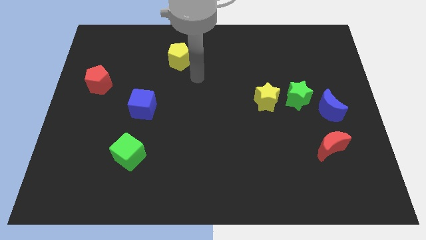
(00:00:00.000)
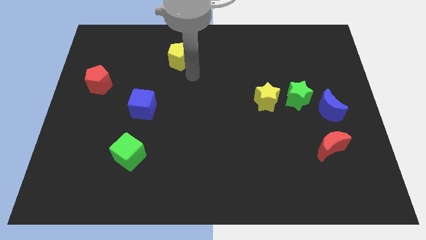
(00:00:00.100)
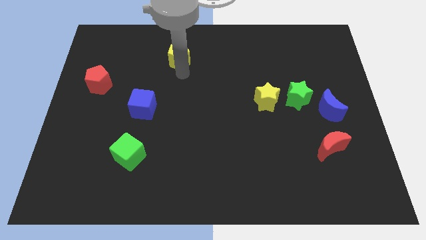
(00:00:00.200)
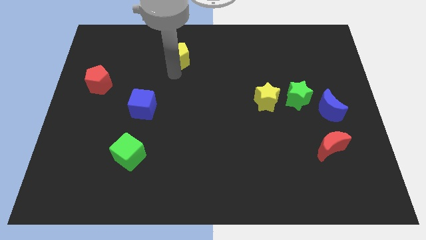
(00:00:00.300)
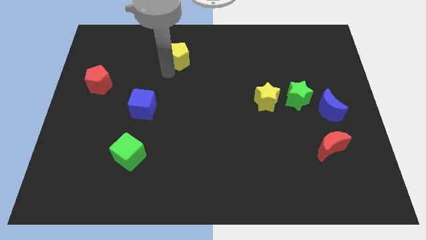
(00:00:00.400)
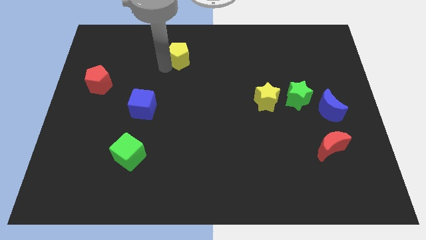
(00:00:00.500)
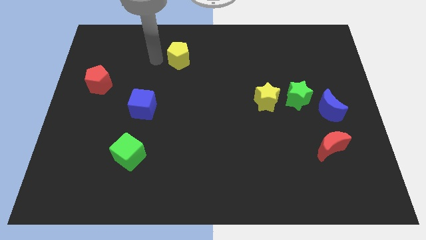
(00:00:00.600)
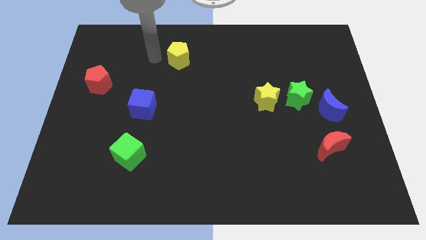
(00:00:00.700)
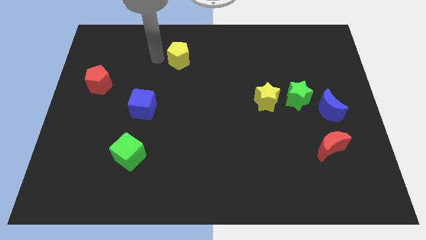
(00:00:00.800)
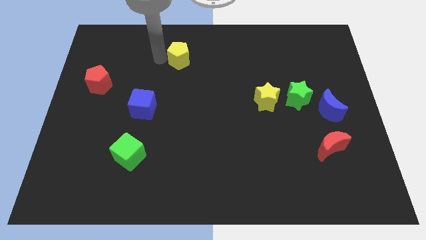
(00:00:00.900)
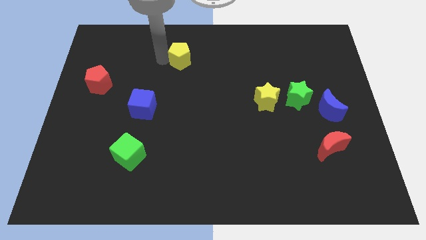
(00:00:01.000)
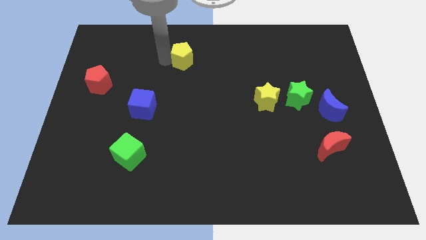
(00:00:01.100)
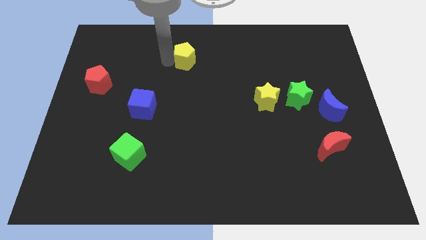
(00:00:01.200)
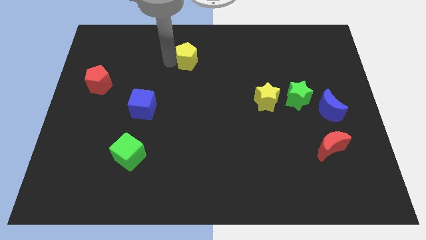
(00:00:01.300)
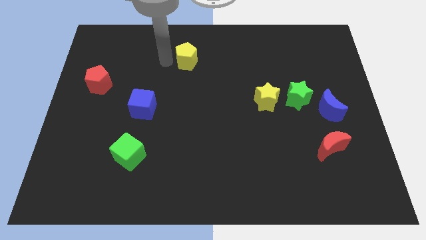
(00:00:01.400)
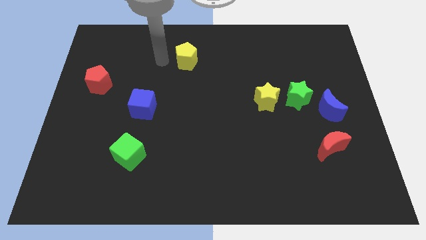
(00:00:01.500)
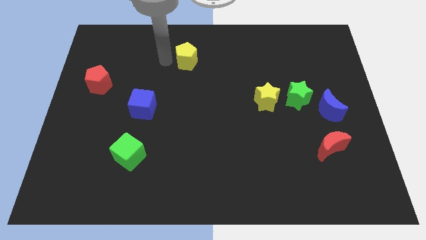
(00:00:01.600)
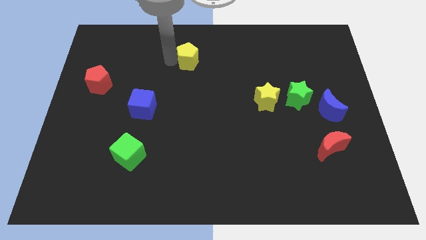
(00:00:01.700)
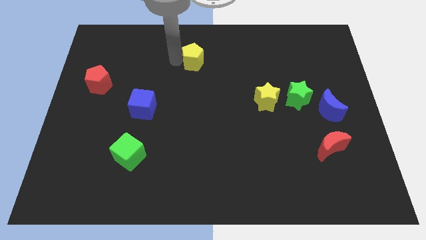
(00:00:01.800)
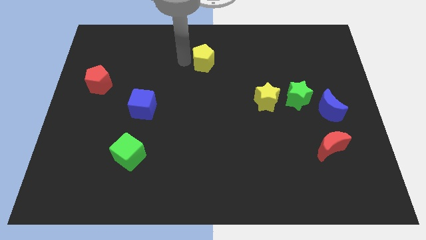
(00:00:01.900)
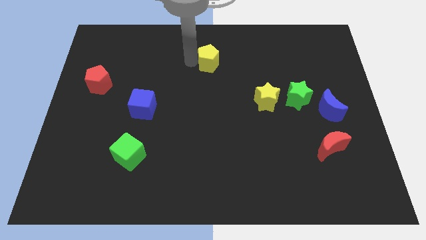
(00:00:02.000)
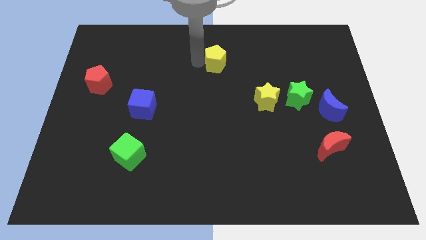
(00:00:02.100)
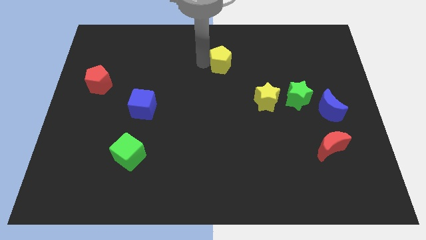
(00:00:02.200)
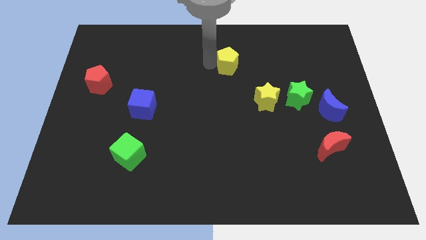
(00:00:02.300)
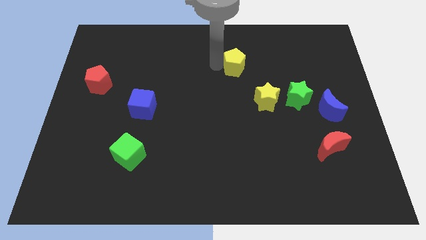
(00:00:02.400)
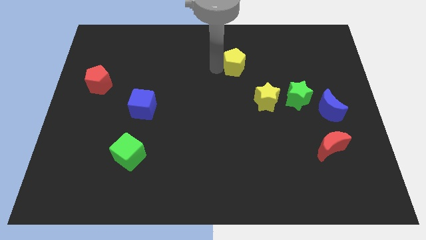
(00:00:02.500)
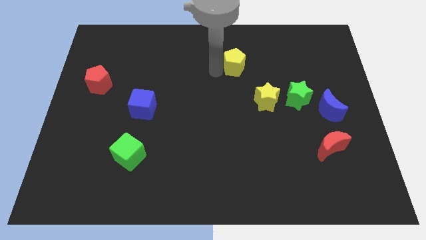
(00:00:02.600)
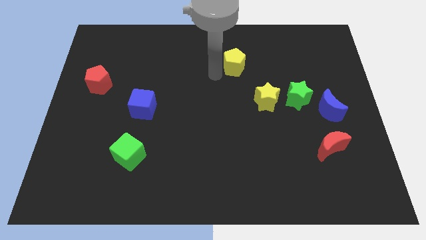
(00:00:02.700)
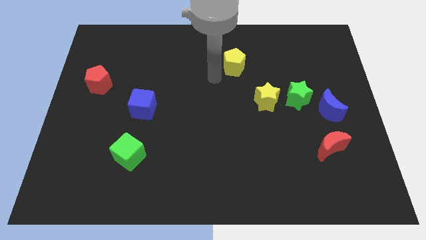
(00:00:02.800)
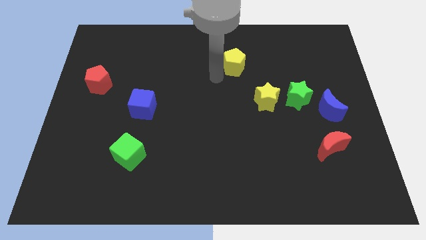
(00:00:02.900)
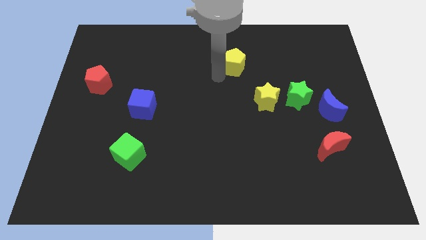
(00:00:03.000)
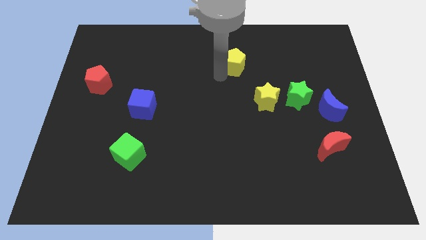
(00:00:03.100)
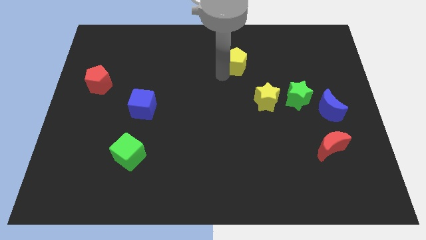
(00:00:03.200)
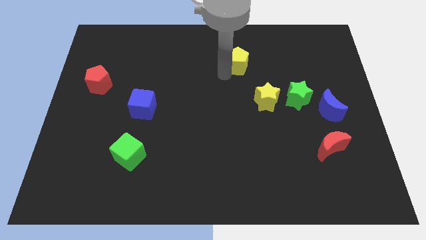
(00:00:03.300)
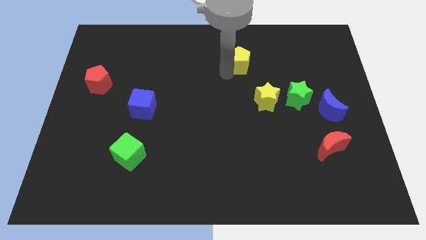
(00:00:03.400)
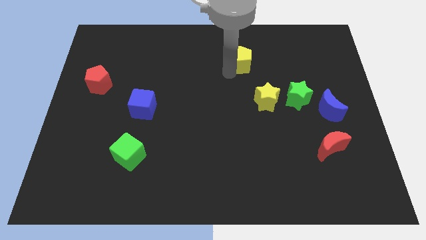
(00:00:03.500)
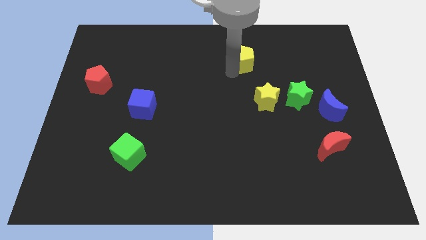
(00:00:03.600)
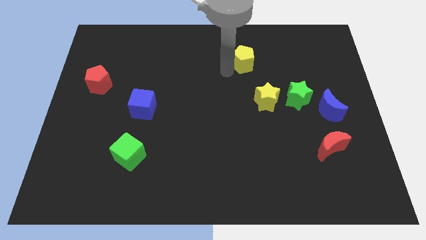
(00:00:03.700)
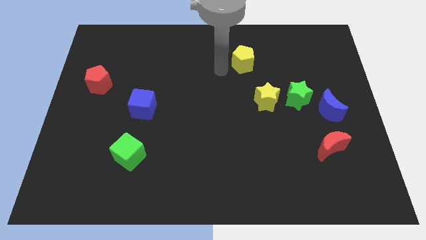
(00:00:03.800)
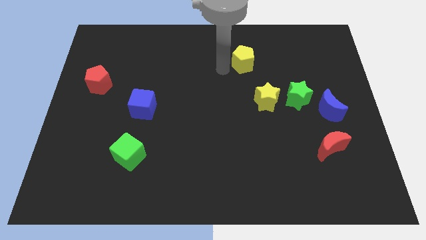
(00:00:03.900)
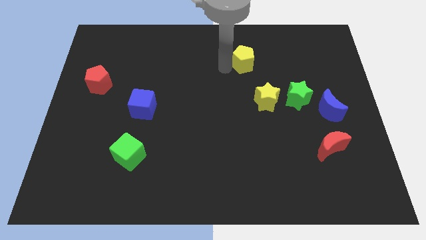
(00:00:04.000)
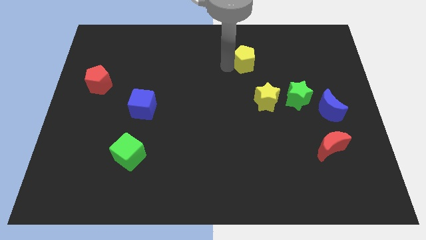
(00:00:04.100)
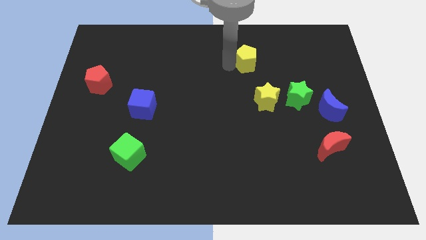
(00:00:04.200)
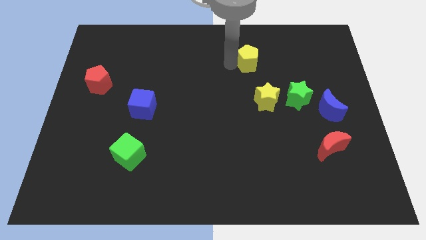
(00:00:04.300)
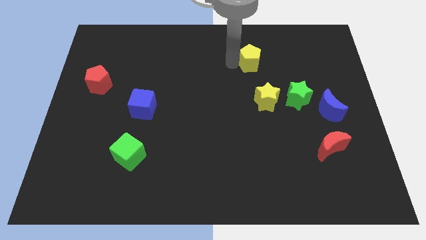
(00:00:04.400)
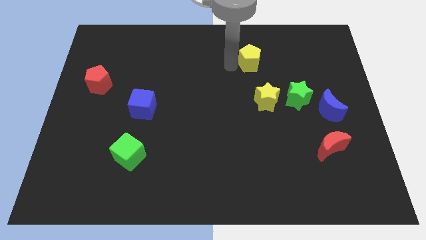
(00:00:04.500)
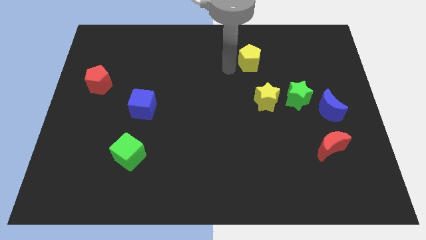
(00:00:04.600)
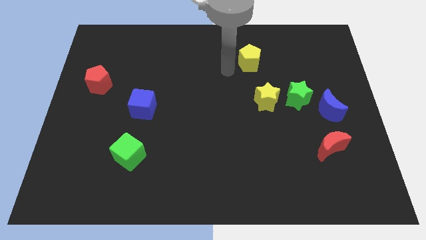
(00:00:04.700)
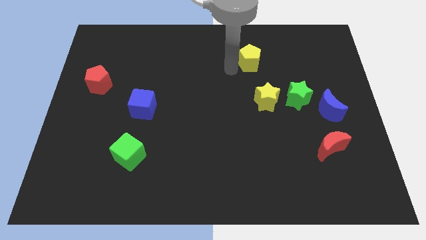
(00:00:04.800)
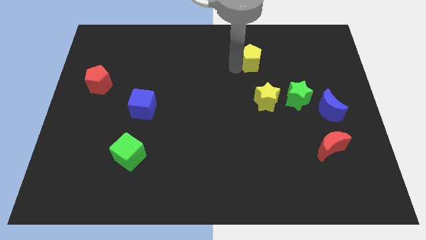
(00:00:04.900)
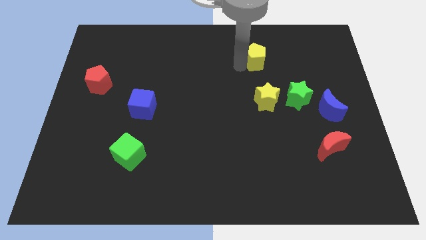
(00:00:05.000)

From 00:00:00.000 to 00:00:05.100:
push the yellow pentagon right

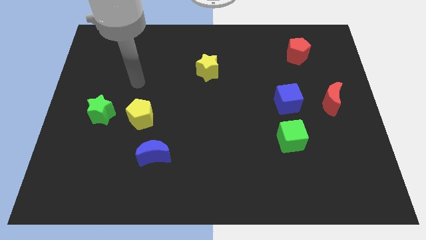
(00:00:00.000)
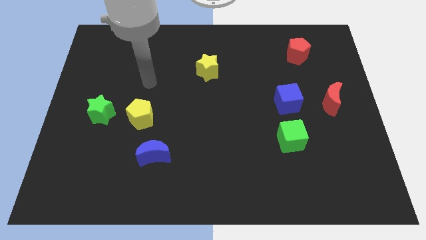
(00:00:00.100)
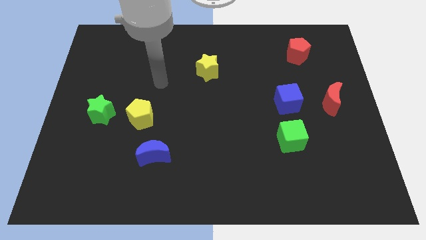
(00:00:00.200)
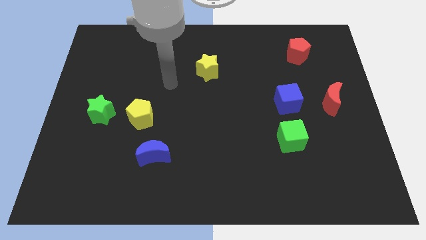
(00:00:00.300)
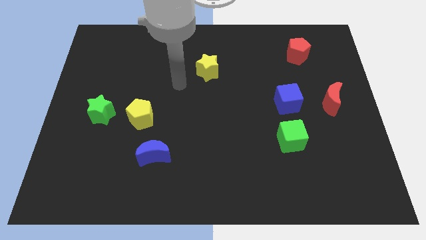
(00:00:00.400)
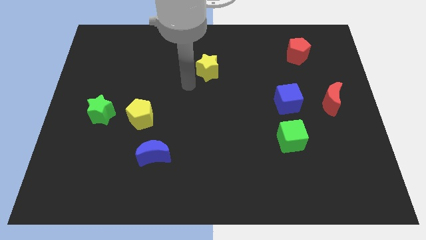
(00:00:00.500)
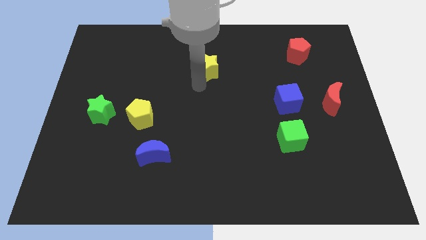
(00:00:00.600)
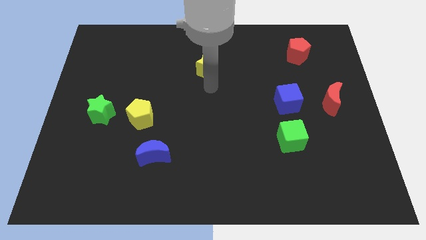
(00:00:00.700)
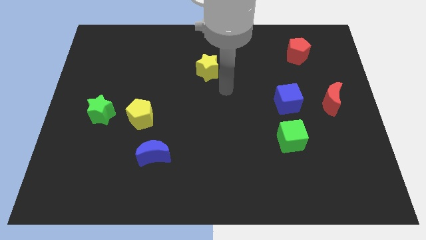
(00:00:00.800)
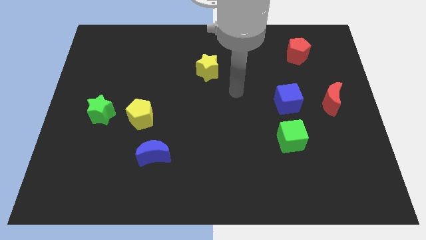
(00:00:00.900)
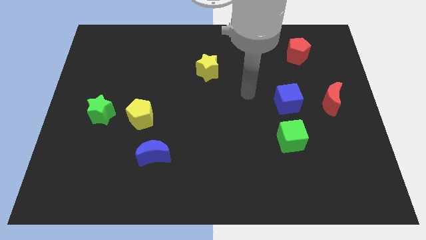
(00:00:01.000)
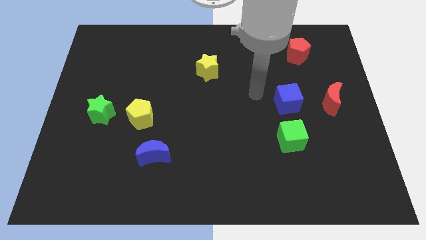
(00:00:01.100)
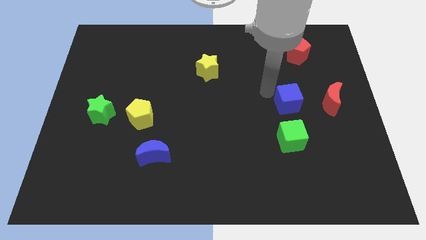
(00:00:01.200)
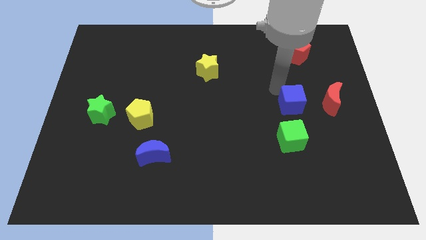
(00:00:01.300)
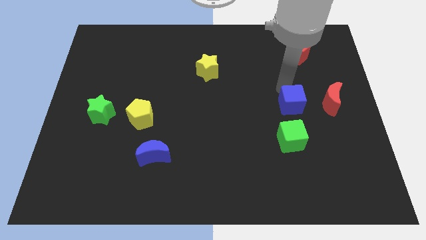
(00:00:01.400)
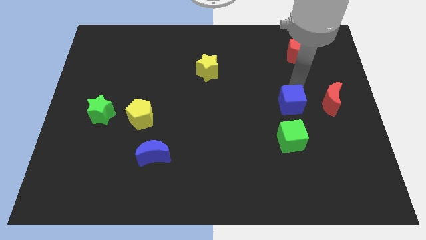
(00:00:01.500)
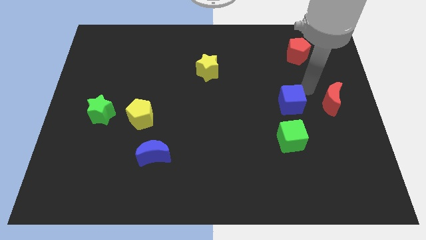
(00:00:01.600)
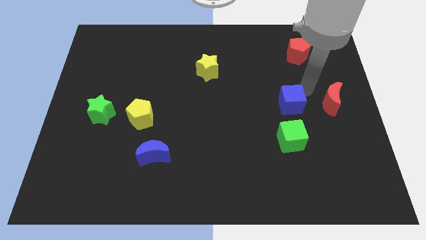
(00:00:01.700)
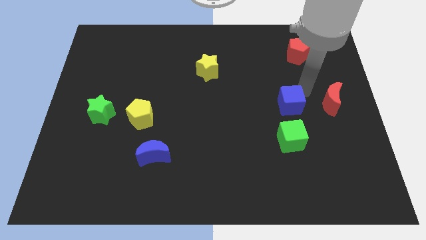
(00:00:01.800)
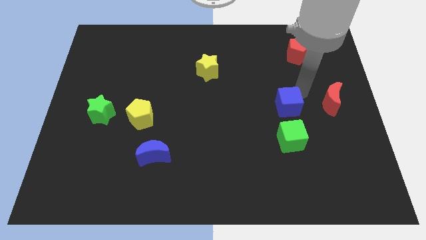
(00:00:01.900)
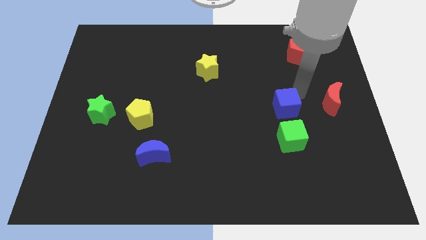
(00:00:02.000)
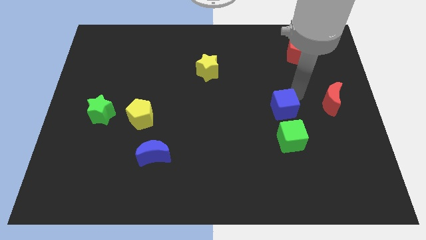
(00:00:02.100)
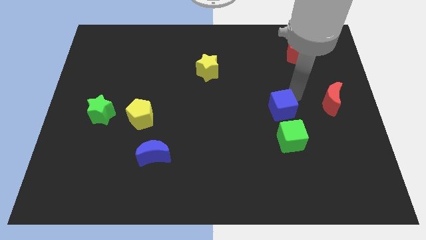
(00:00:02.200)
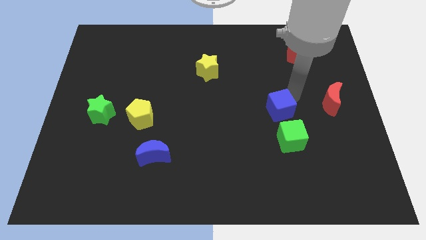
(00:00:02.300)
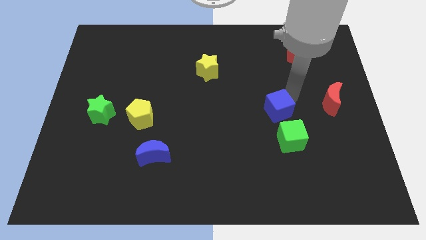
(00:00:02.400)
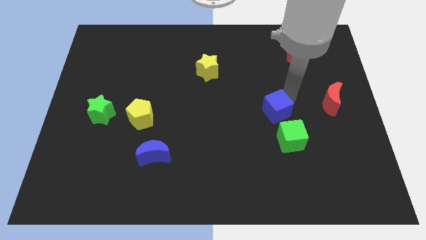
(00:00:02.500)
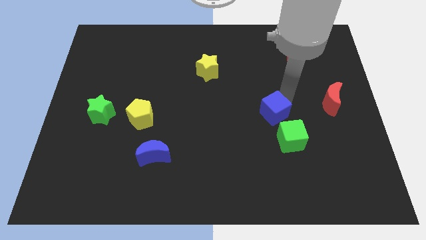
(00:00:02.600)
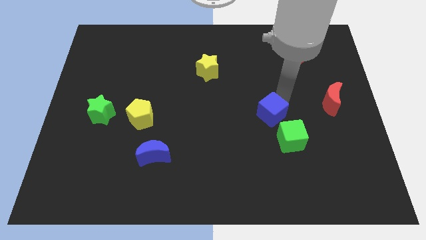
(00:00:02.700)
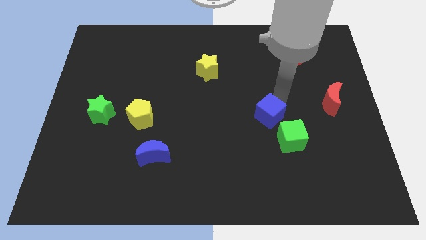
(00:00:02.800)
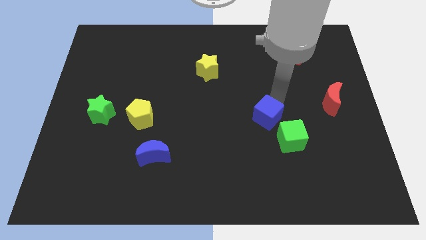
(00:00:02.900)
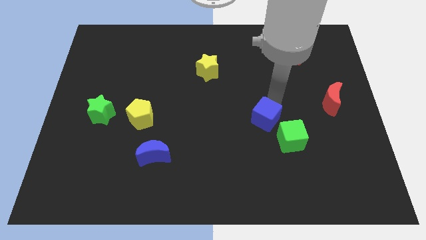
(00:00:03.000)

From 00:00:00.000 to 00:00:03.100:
slightly push the blue cube down and left
